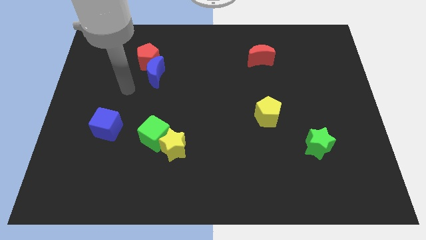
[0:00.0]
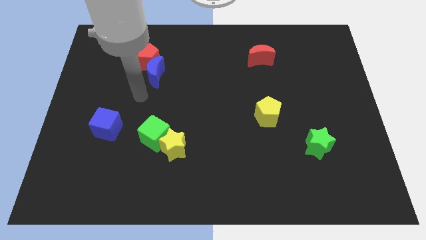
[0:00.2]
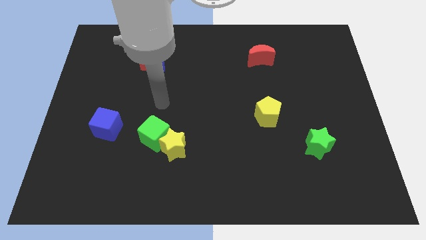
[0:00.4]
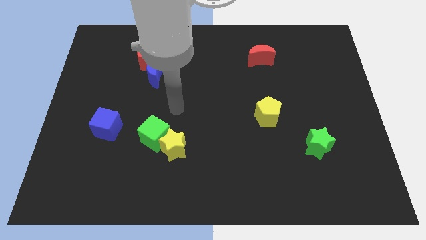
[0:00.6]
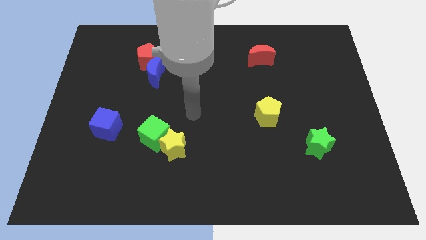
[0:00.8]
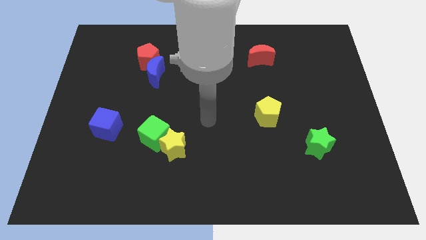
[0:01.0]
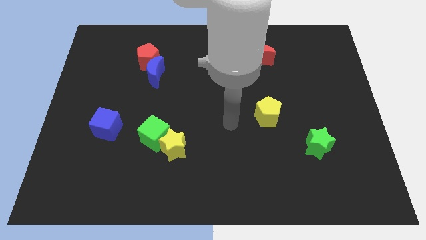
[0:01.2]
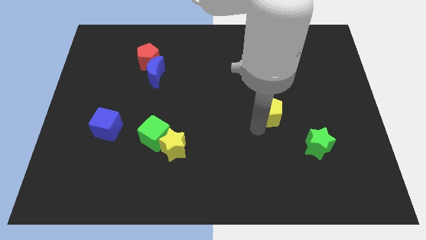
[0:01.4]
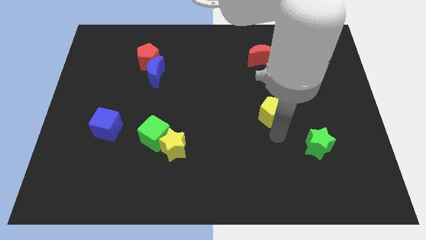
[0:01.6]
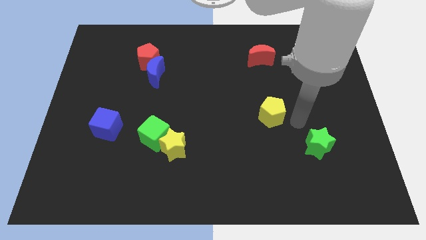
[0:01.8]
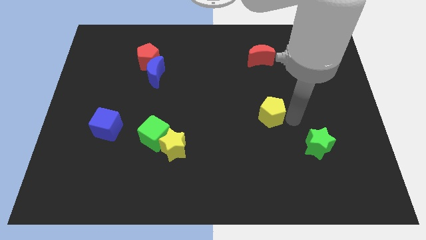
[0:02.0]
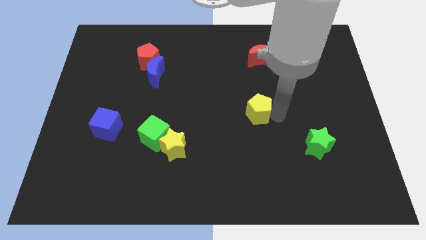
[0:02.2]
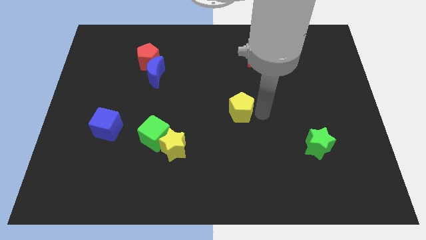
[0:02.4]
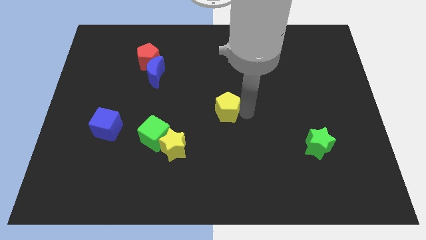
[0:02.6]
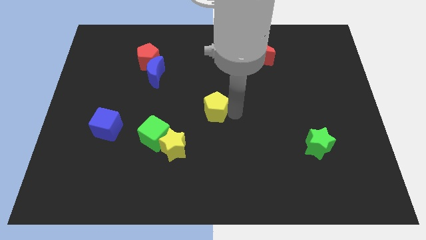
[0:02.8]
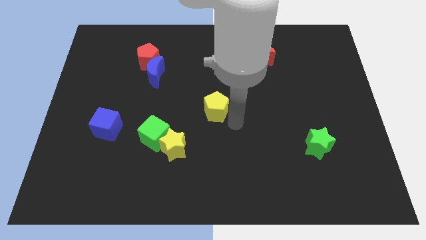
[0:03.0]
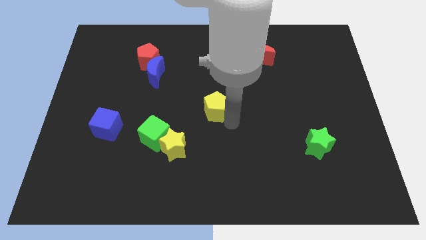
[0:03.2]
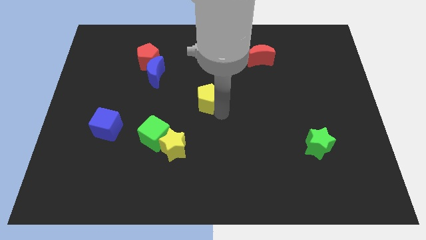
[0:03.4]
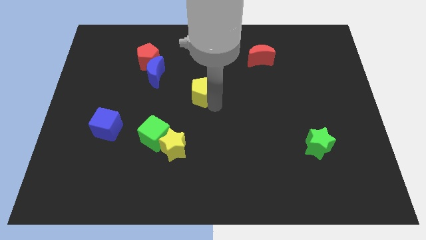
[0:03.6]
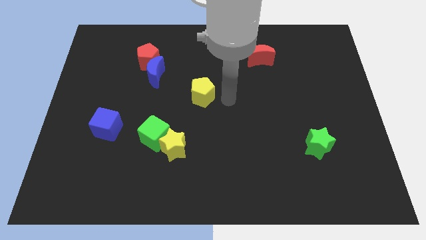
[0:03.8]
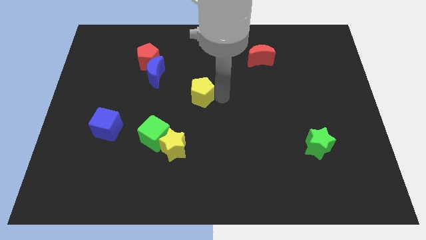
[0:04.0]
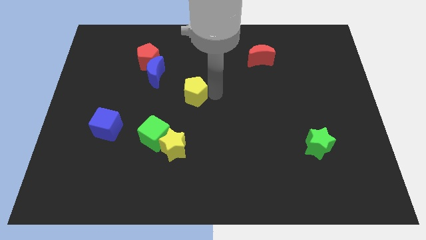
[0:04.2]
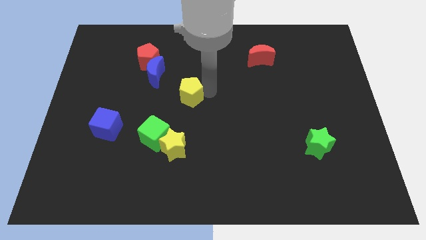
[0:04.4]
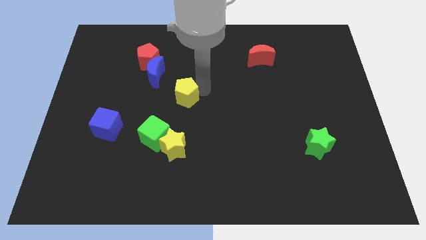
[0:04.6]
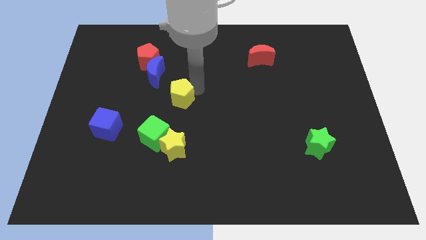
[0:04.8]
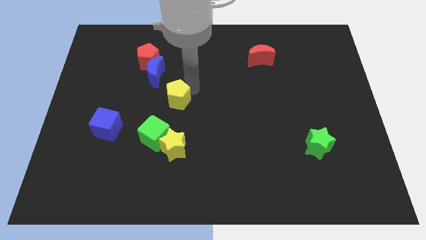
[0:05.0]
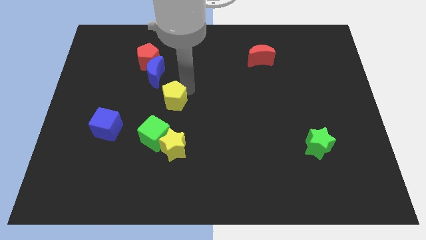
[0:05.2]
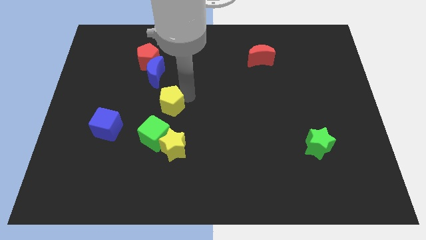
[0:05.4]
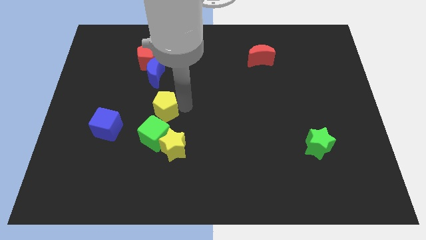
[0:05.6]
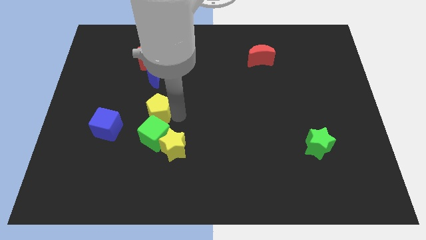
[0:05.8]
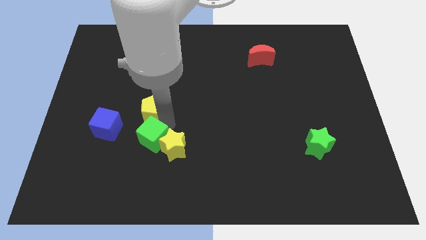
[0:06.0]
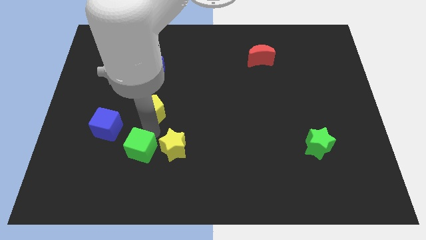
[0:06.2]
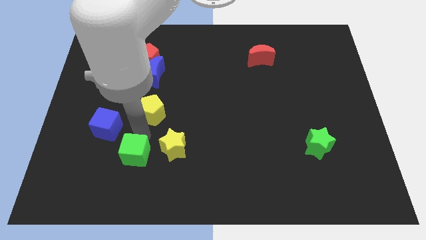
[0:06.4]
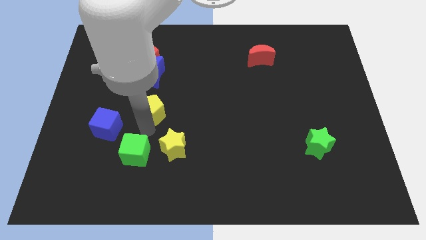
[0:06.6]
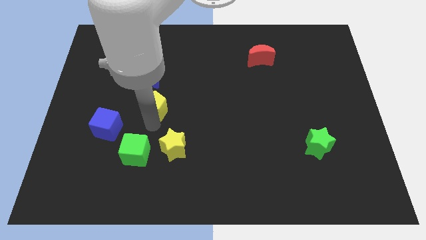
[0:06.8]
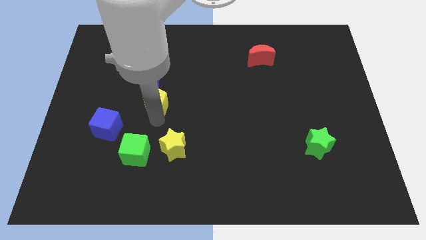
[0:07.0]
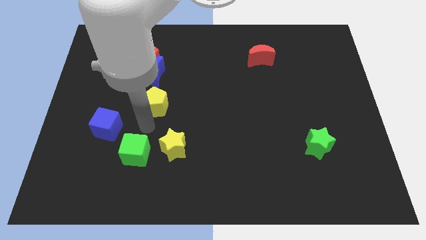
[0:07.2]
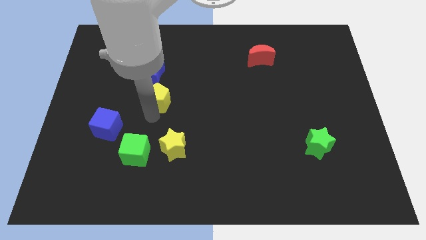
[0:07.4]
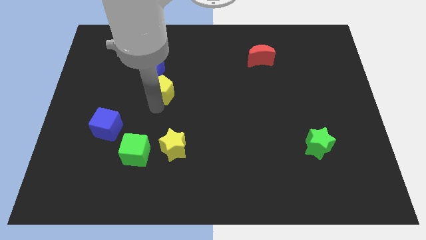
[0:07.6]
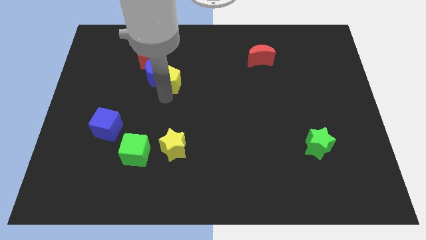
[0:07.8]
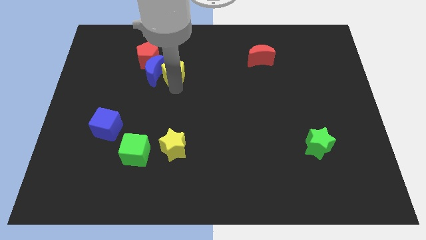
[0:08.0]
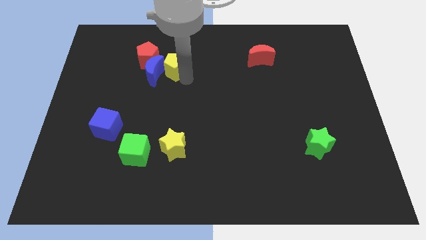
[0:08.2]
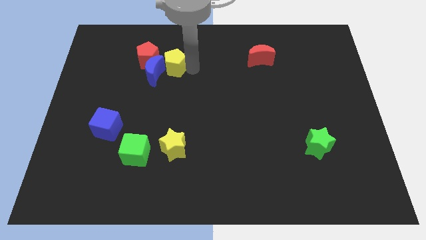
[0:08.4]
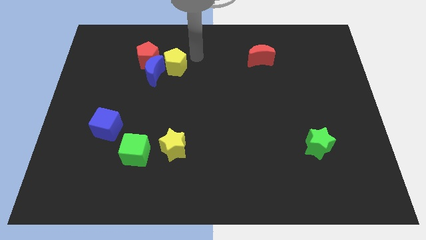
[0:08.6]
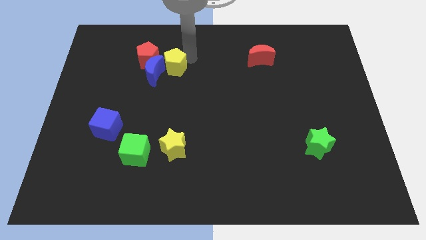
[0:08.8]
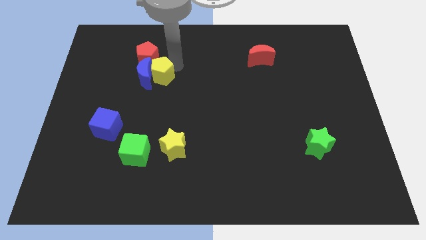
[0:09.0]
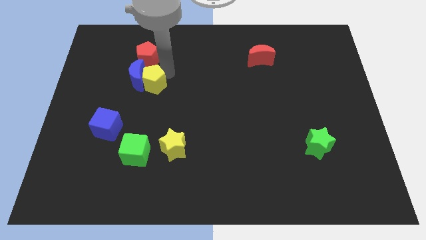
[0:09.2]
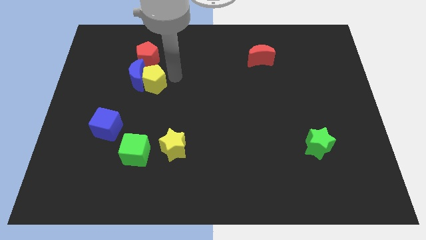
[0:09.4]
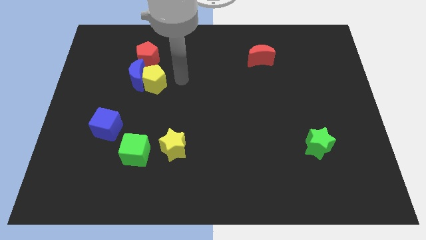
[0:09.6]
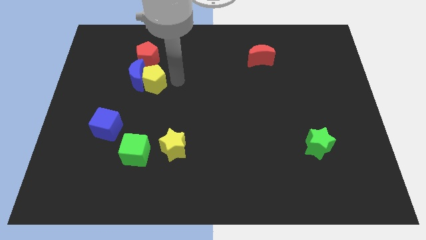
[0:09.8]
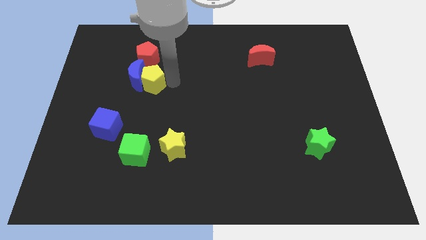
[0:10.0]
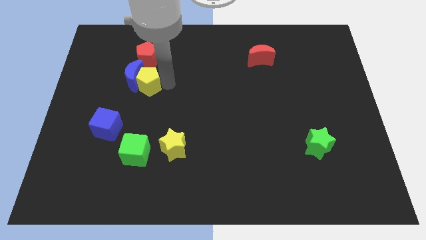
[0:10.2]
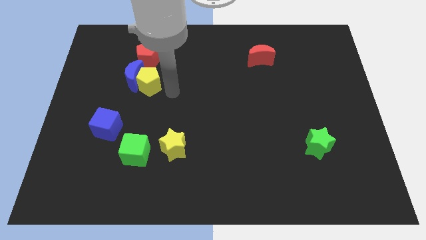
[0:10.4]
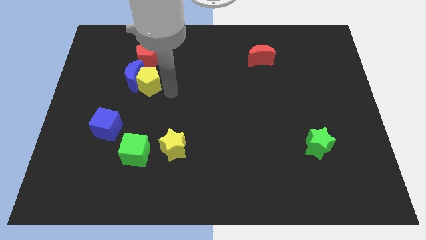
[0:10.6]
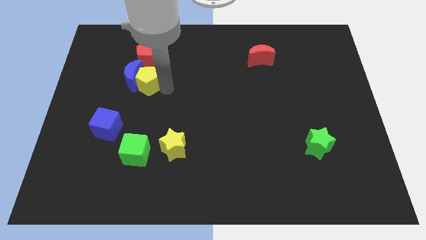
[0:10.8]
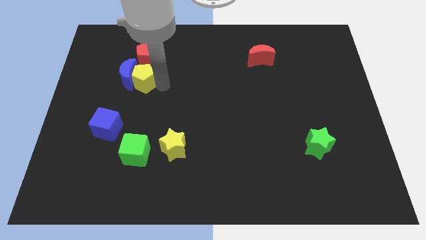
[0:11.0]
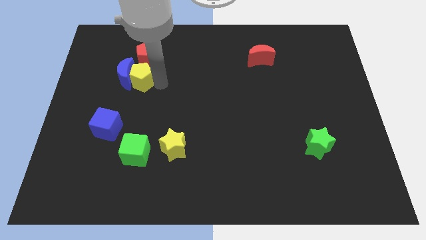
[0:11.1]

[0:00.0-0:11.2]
move the yellow pentagon diagonally down and to the left of the red pentagon

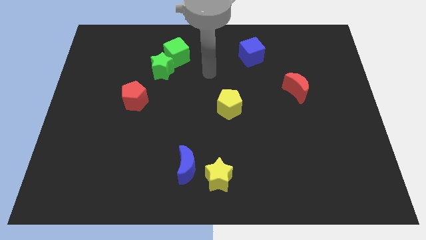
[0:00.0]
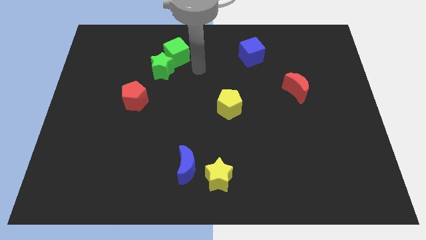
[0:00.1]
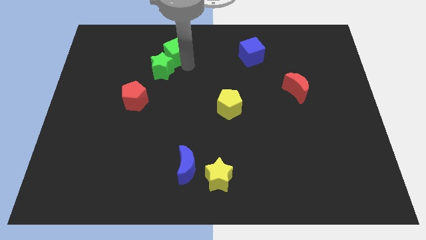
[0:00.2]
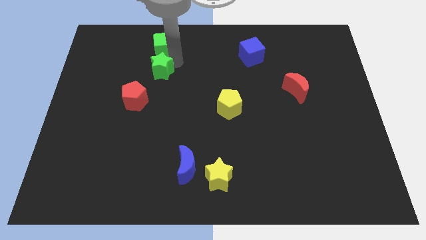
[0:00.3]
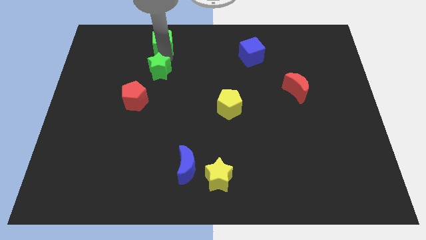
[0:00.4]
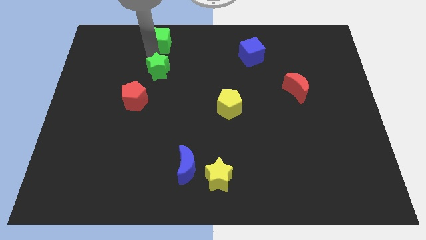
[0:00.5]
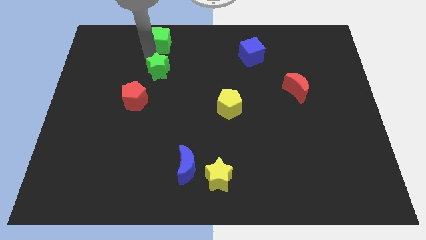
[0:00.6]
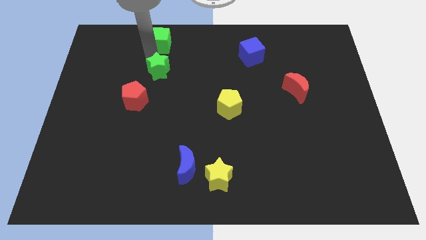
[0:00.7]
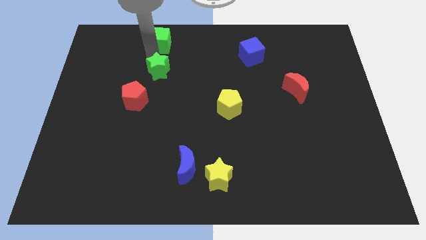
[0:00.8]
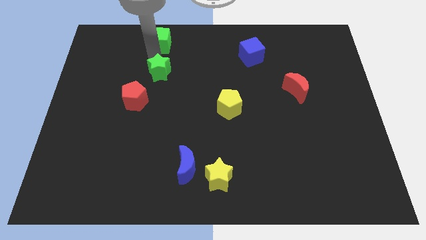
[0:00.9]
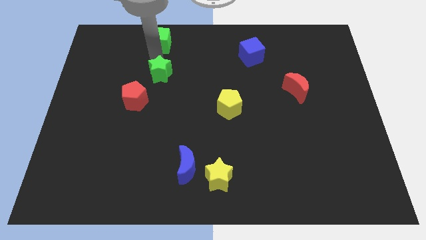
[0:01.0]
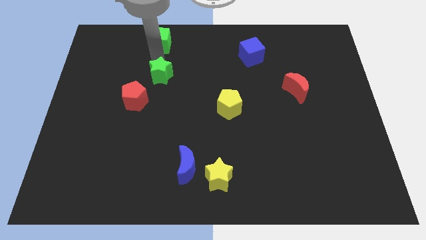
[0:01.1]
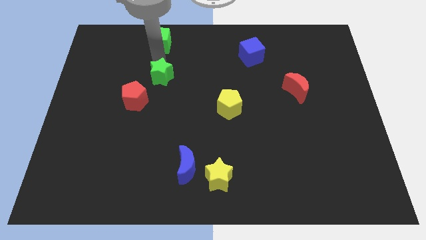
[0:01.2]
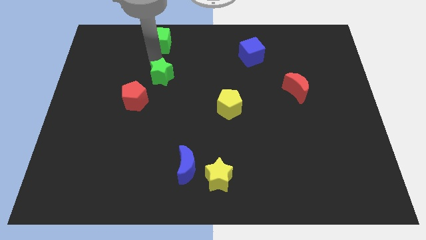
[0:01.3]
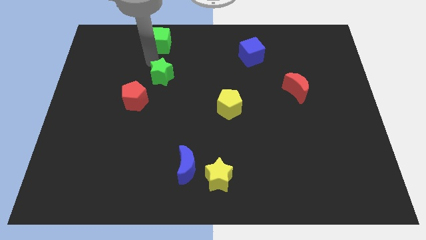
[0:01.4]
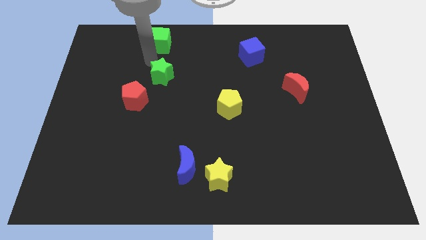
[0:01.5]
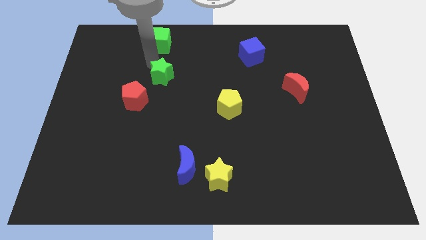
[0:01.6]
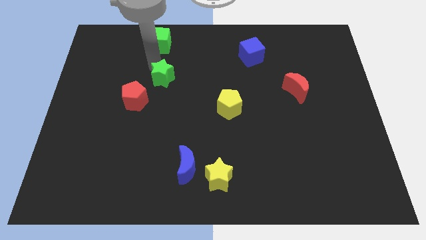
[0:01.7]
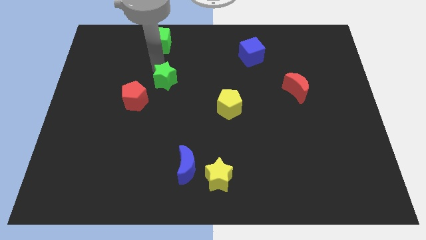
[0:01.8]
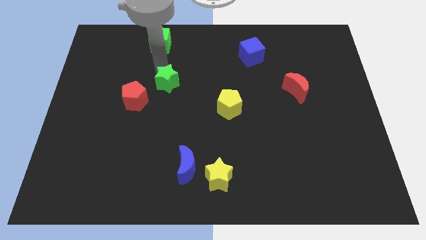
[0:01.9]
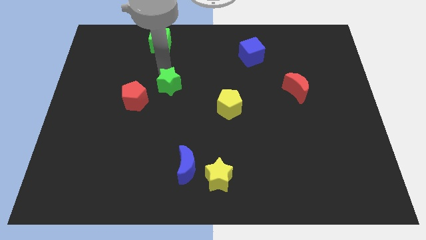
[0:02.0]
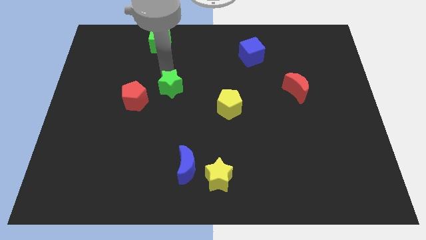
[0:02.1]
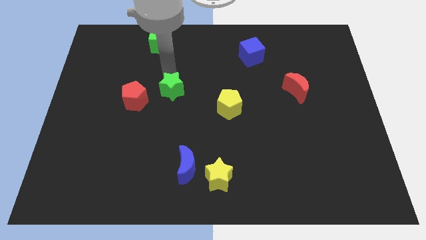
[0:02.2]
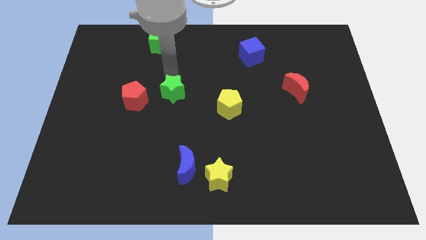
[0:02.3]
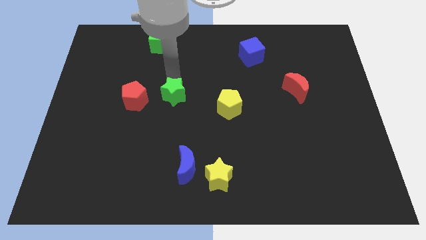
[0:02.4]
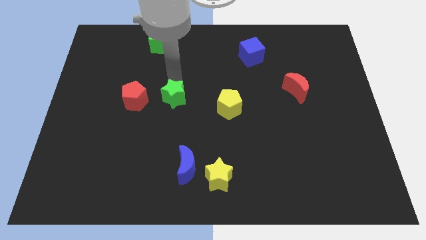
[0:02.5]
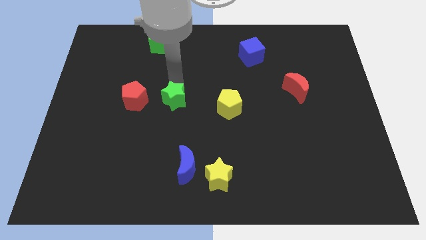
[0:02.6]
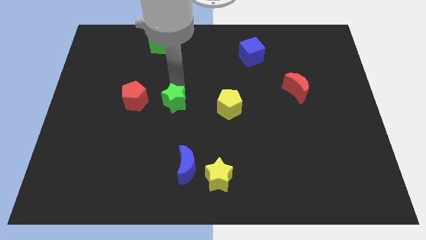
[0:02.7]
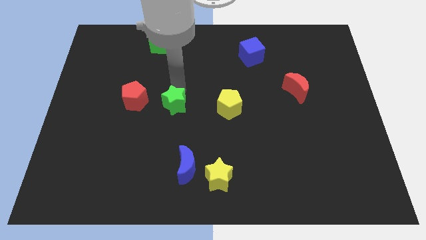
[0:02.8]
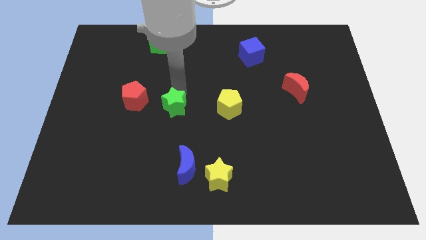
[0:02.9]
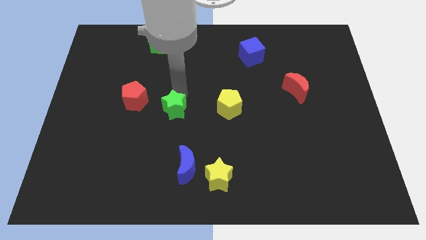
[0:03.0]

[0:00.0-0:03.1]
push the green star diagonally down and to the right of the red pentagon
